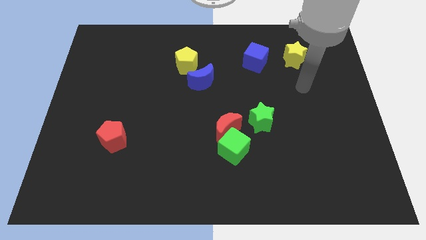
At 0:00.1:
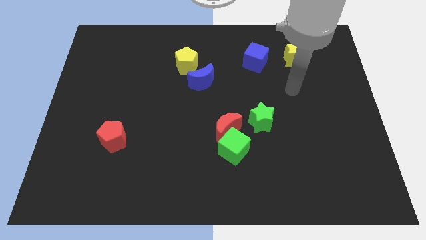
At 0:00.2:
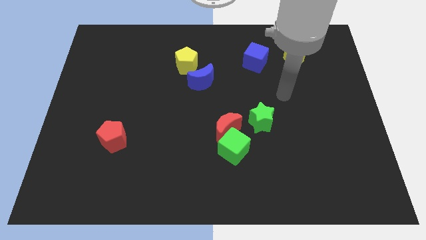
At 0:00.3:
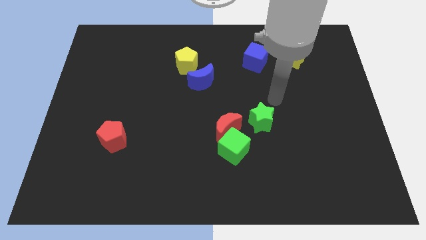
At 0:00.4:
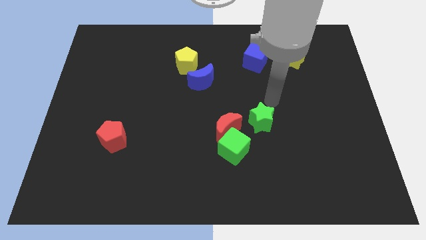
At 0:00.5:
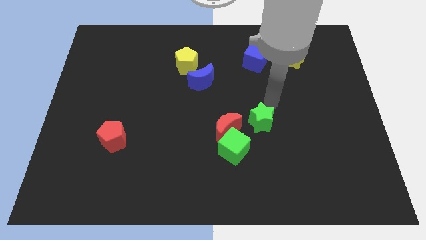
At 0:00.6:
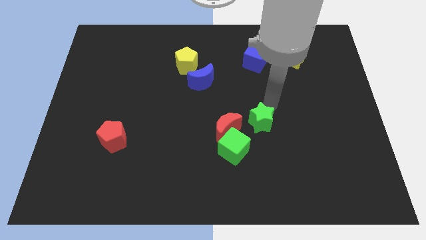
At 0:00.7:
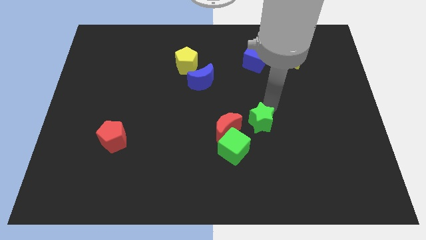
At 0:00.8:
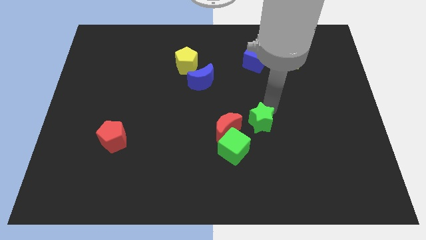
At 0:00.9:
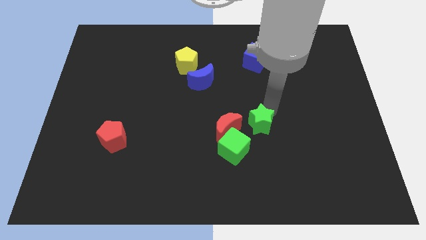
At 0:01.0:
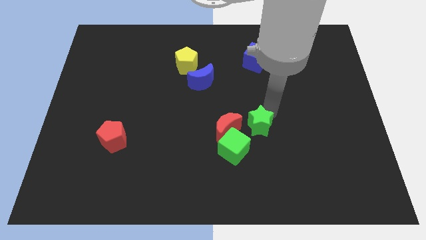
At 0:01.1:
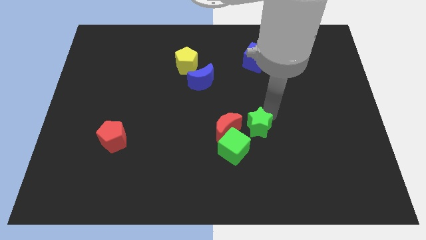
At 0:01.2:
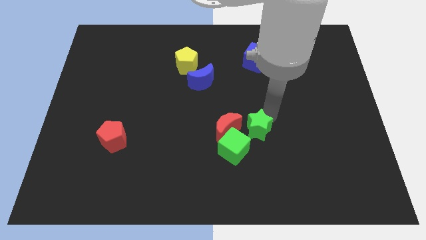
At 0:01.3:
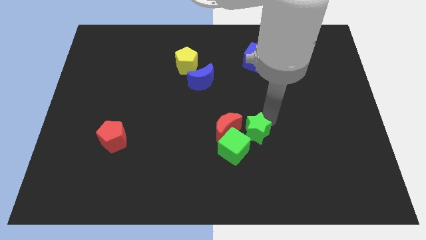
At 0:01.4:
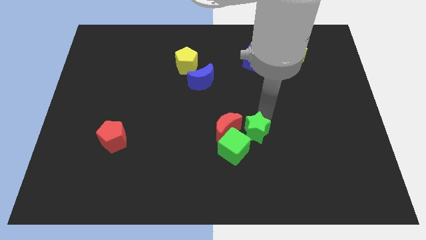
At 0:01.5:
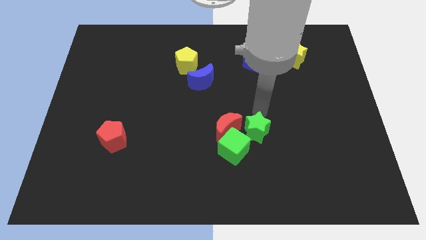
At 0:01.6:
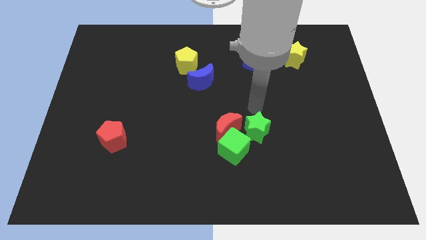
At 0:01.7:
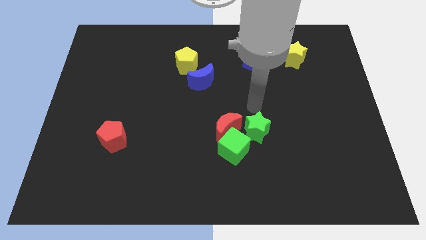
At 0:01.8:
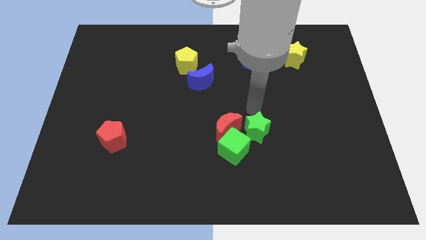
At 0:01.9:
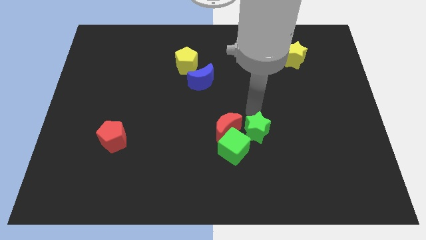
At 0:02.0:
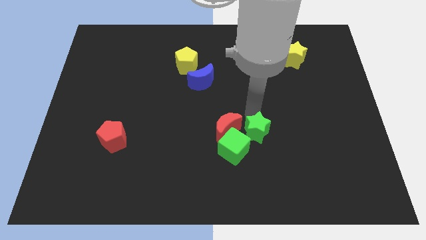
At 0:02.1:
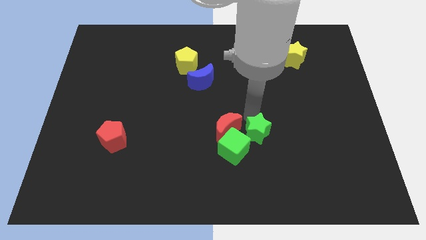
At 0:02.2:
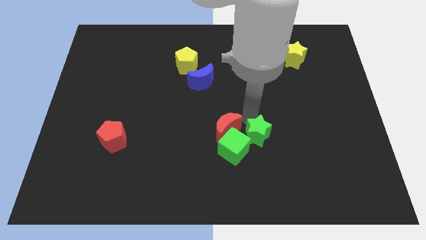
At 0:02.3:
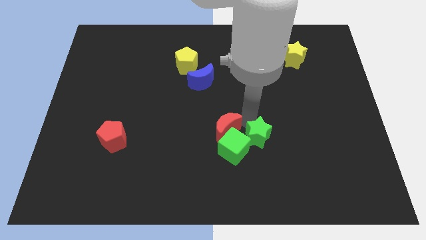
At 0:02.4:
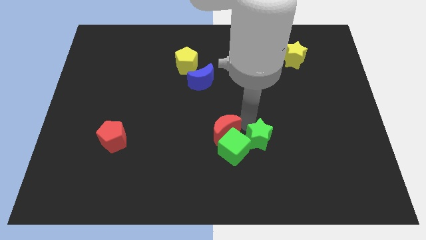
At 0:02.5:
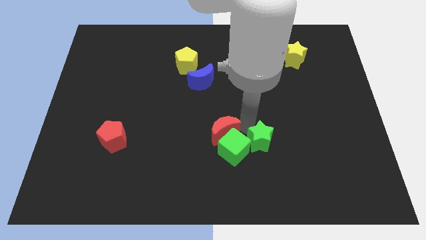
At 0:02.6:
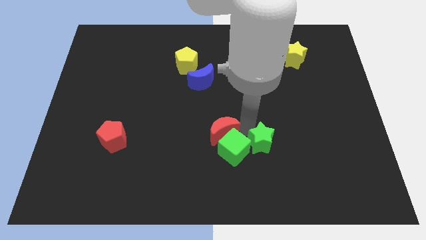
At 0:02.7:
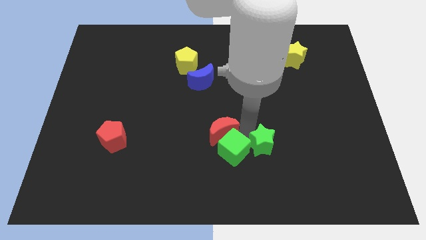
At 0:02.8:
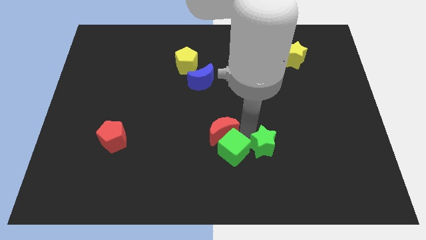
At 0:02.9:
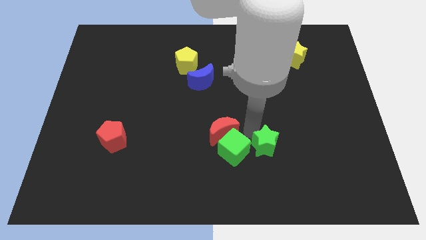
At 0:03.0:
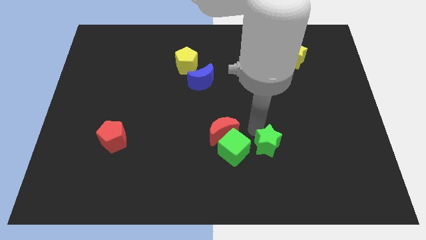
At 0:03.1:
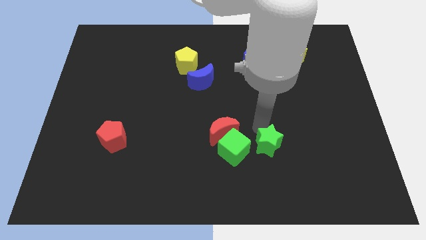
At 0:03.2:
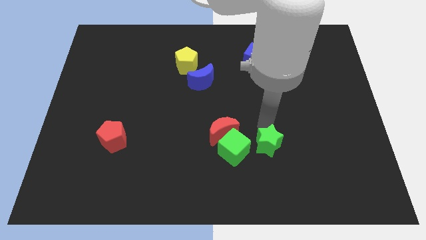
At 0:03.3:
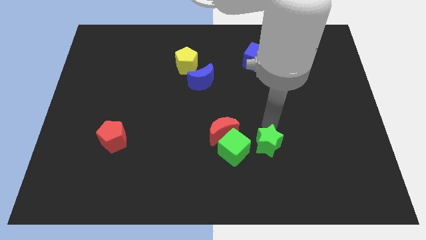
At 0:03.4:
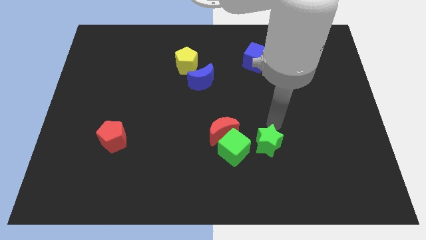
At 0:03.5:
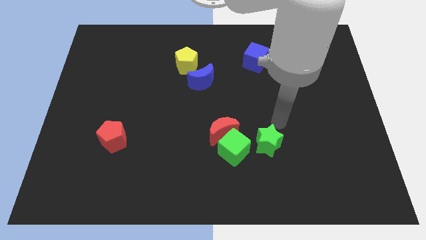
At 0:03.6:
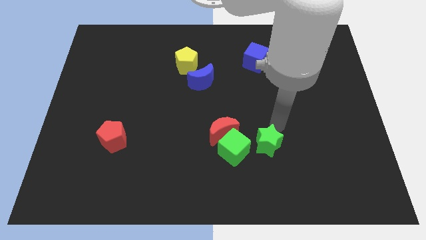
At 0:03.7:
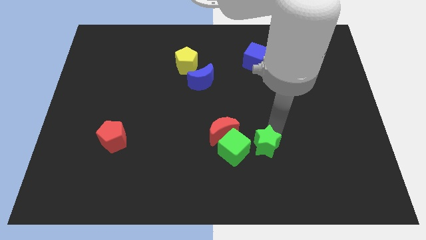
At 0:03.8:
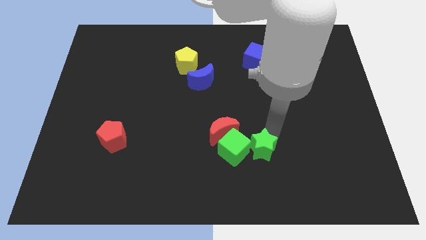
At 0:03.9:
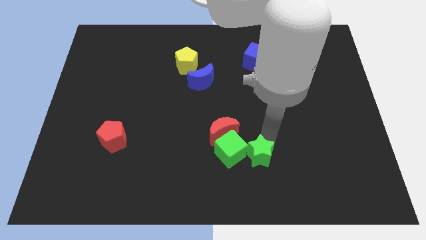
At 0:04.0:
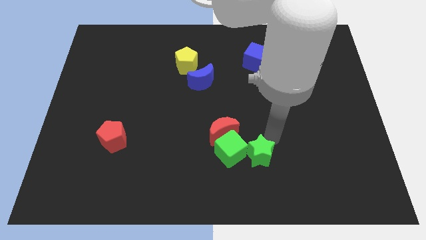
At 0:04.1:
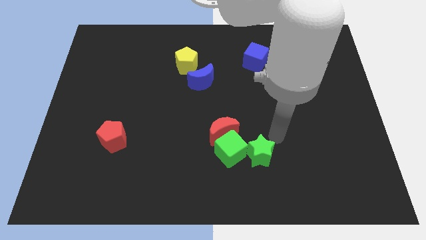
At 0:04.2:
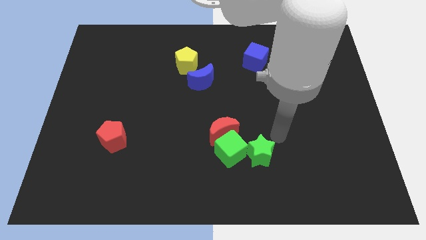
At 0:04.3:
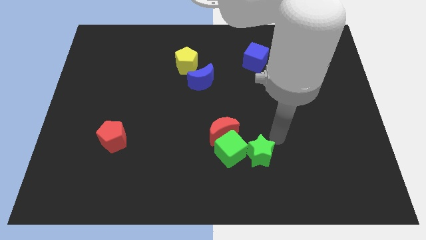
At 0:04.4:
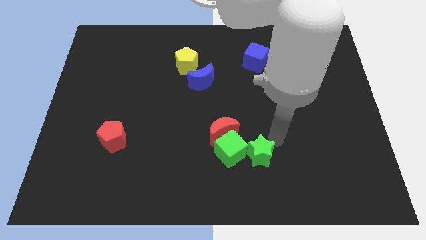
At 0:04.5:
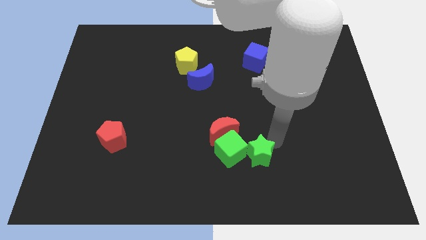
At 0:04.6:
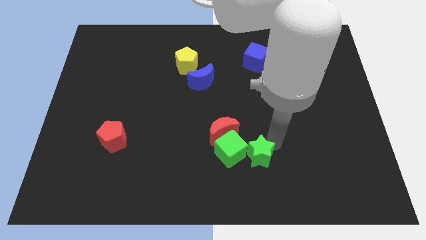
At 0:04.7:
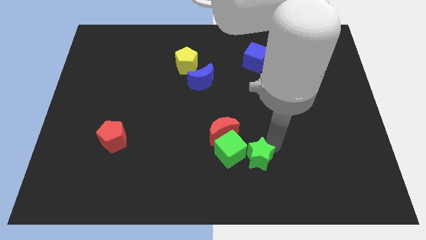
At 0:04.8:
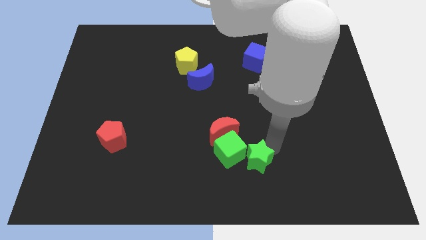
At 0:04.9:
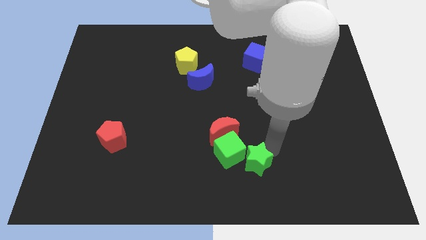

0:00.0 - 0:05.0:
slide the green star a little bit diagonally downwards and to the left

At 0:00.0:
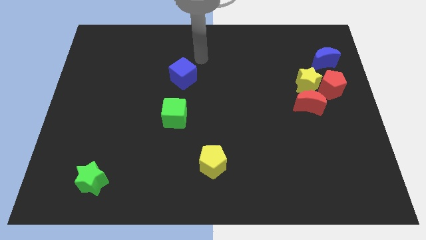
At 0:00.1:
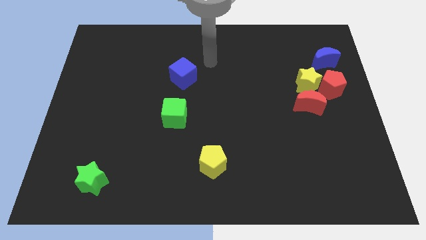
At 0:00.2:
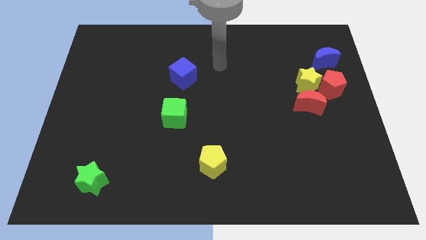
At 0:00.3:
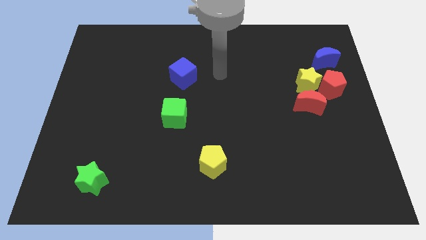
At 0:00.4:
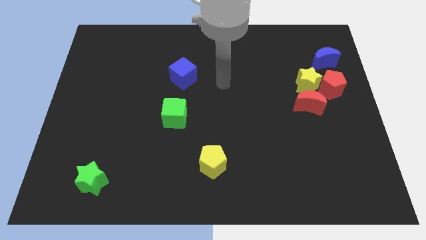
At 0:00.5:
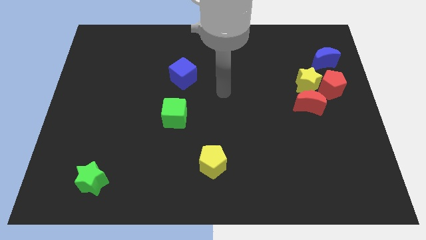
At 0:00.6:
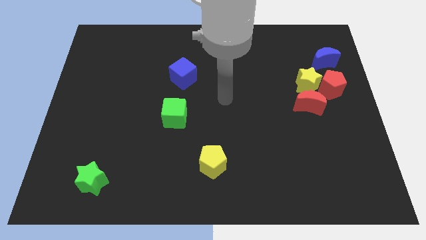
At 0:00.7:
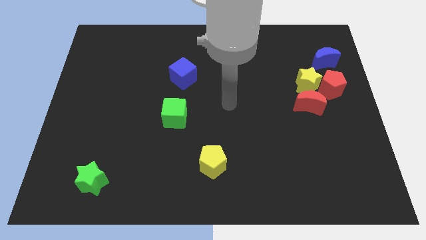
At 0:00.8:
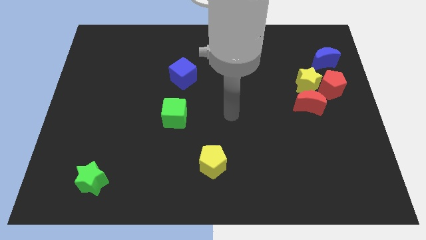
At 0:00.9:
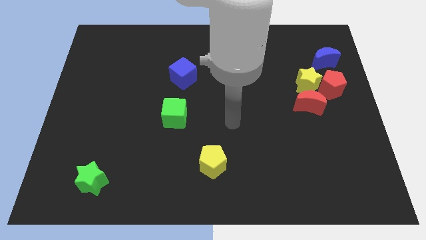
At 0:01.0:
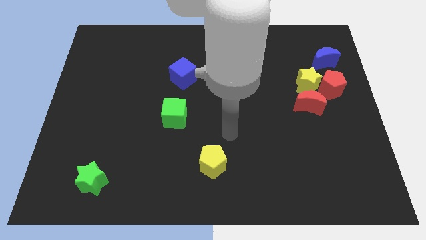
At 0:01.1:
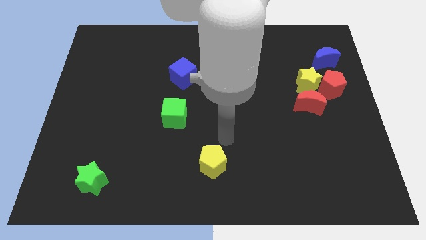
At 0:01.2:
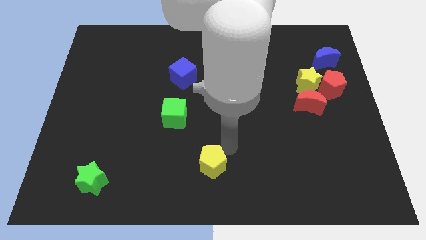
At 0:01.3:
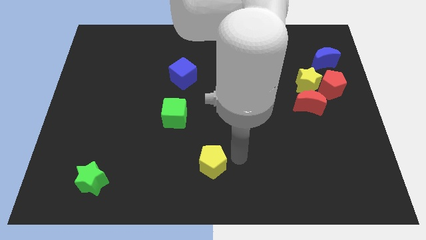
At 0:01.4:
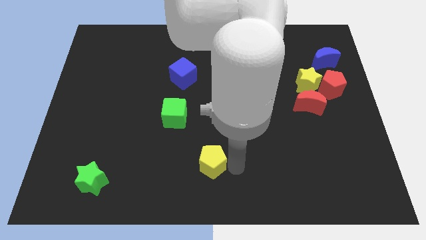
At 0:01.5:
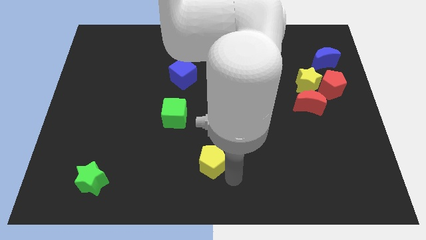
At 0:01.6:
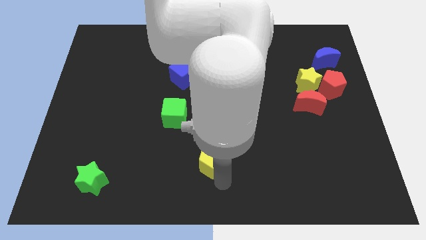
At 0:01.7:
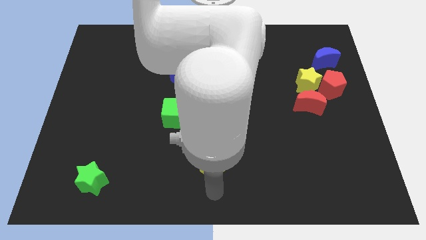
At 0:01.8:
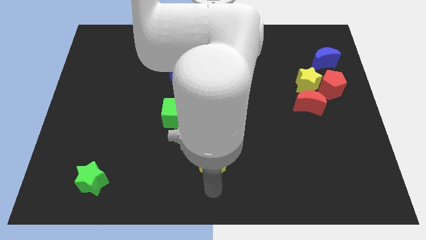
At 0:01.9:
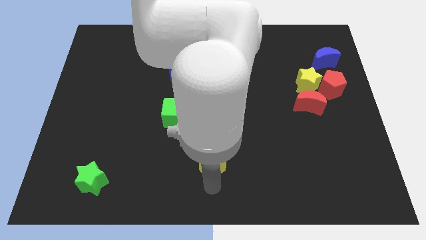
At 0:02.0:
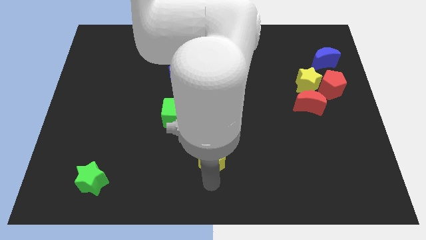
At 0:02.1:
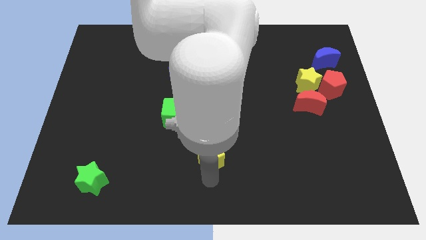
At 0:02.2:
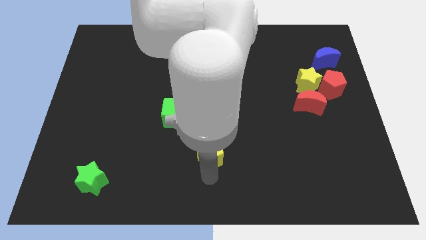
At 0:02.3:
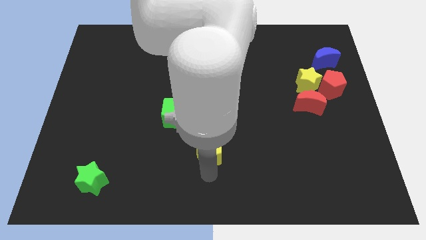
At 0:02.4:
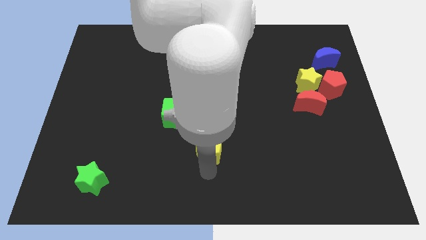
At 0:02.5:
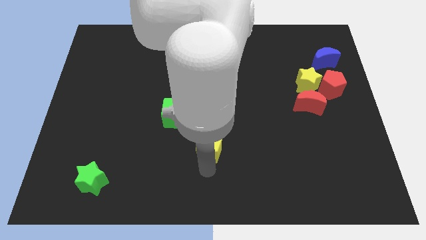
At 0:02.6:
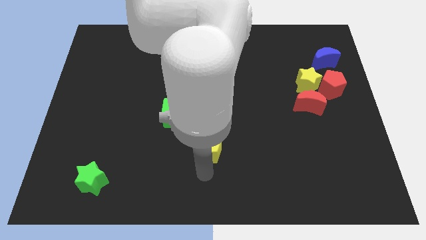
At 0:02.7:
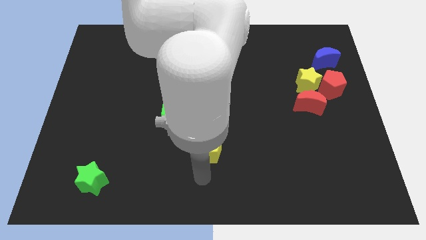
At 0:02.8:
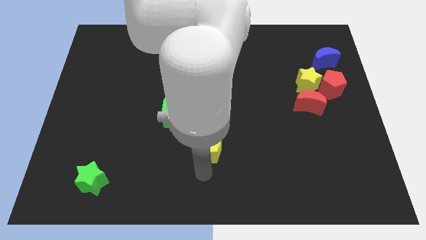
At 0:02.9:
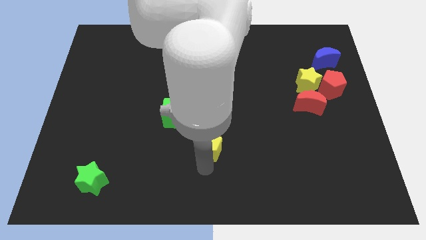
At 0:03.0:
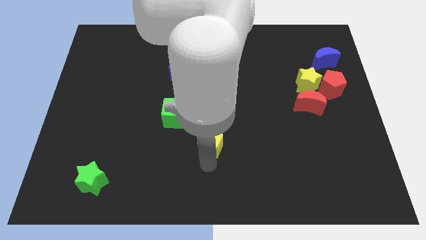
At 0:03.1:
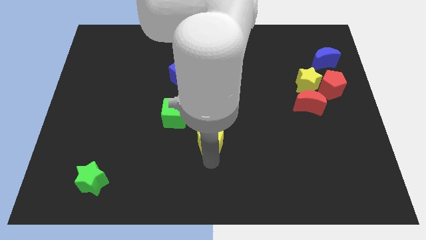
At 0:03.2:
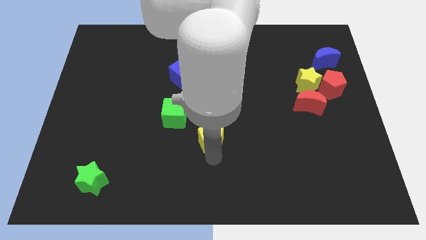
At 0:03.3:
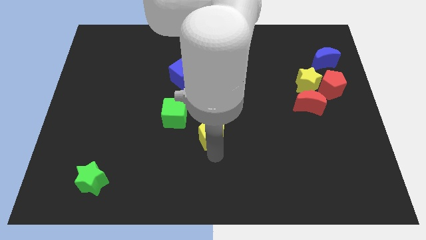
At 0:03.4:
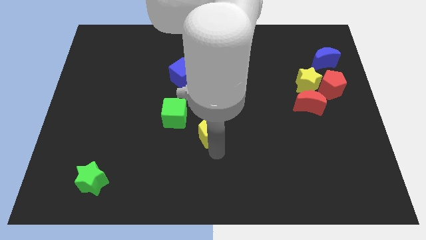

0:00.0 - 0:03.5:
slightly push the yellow pentagon up
